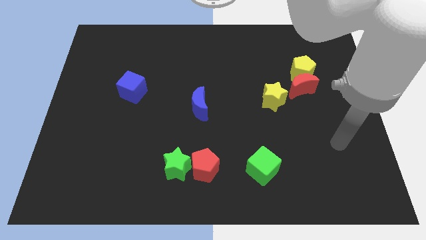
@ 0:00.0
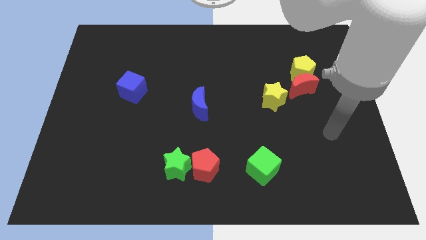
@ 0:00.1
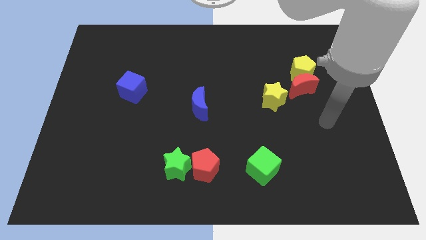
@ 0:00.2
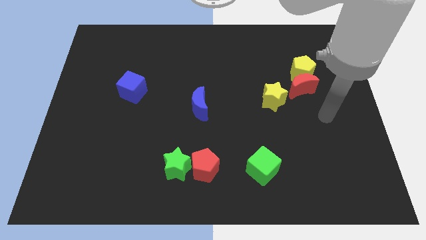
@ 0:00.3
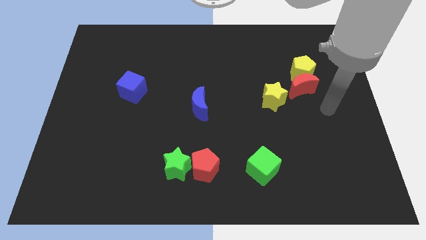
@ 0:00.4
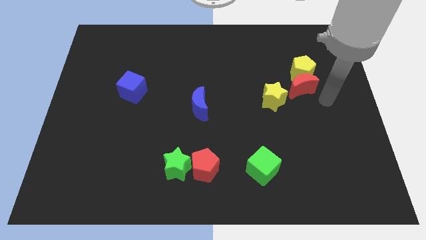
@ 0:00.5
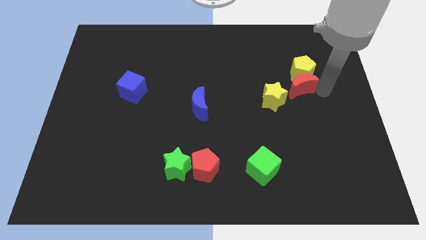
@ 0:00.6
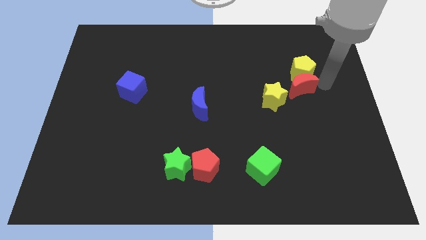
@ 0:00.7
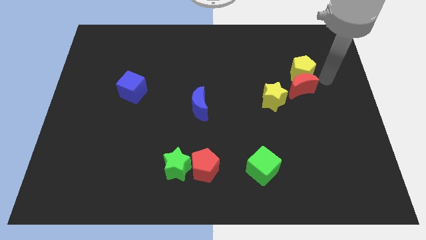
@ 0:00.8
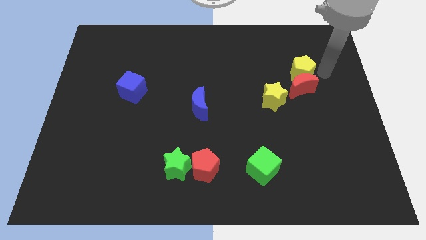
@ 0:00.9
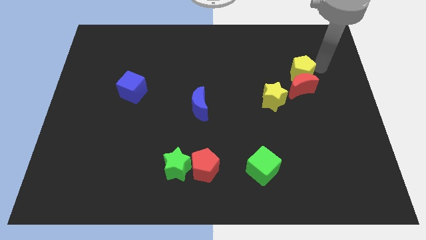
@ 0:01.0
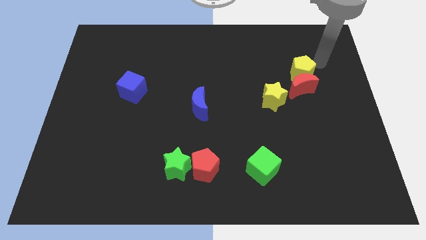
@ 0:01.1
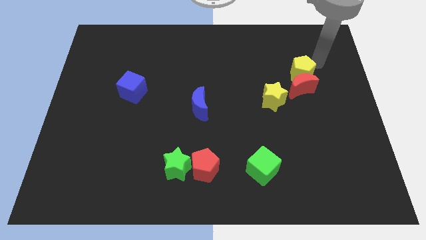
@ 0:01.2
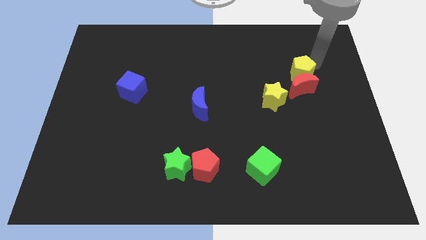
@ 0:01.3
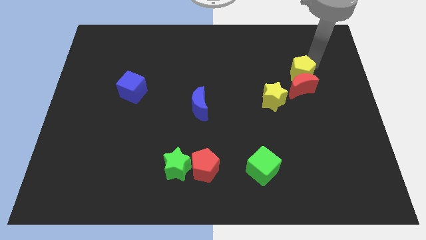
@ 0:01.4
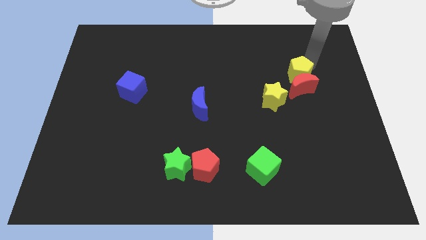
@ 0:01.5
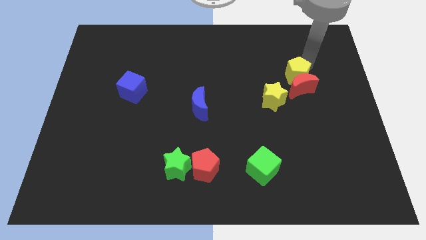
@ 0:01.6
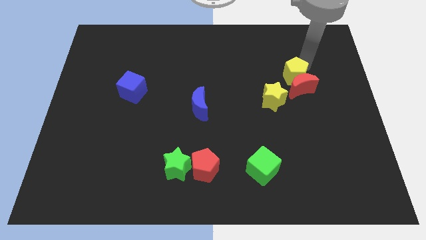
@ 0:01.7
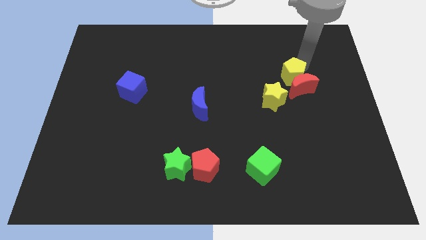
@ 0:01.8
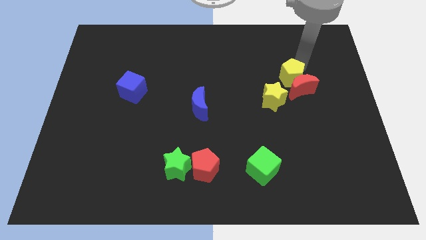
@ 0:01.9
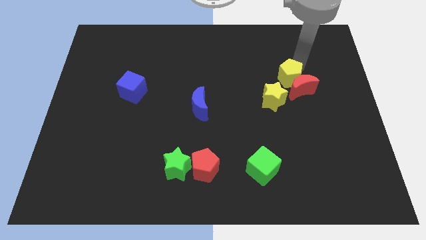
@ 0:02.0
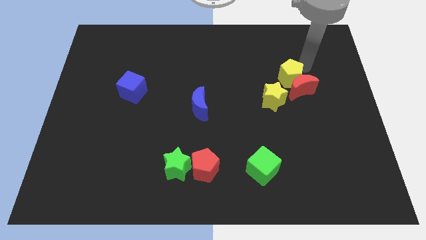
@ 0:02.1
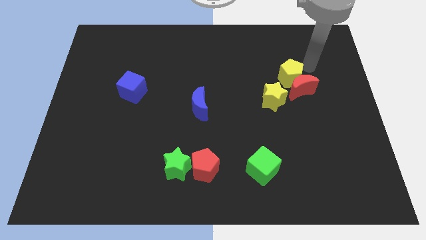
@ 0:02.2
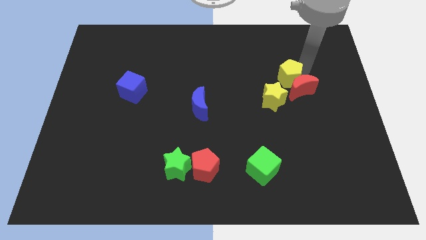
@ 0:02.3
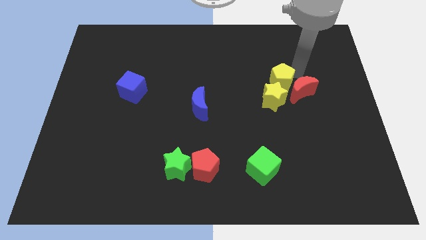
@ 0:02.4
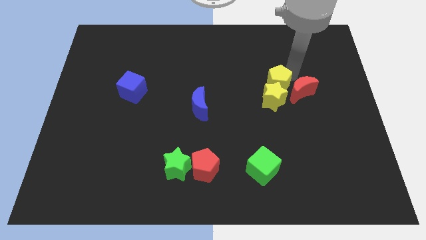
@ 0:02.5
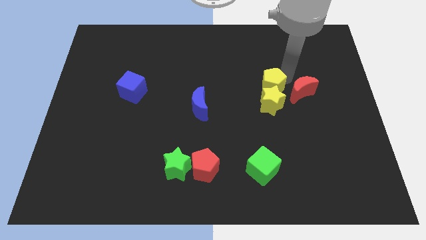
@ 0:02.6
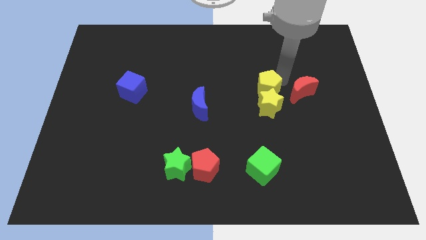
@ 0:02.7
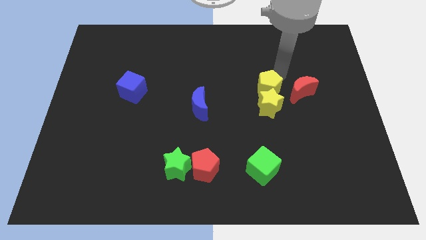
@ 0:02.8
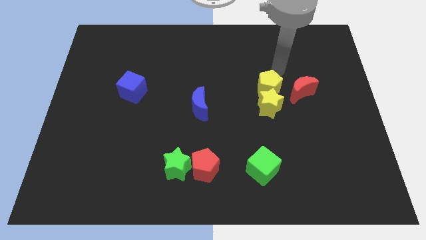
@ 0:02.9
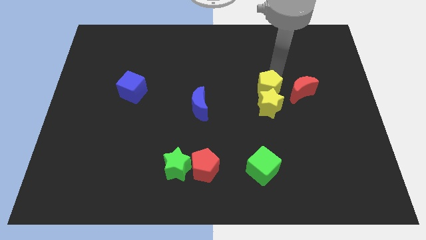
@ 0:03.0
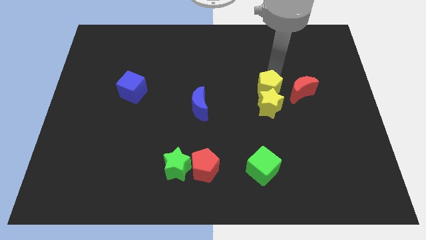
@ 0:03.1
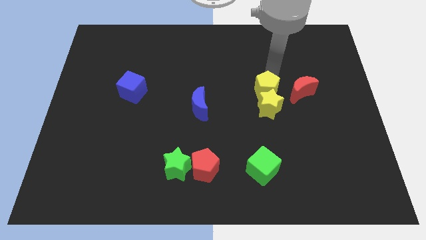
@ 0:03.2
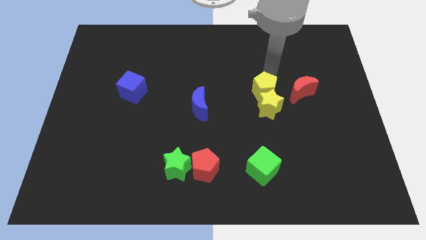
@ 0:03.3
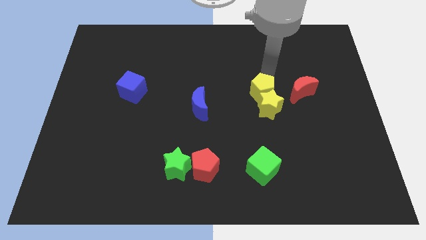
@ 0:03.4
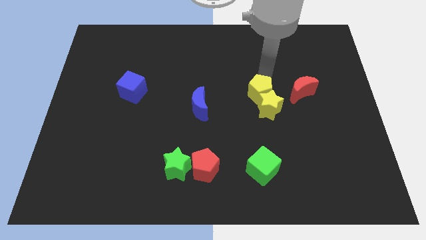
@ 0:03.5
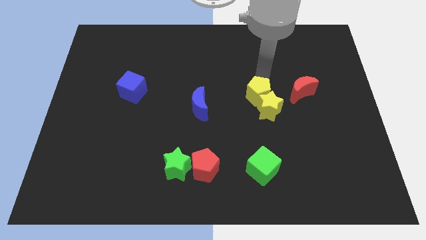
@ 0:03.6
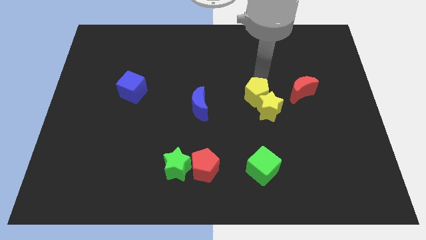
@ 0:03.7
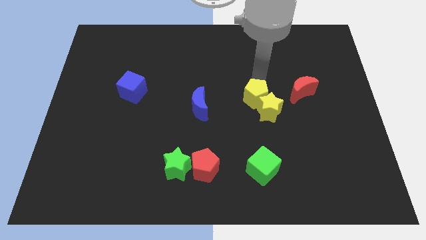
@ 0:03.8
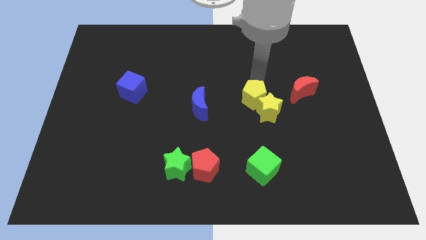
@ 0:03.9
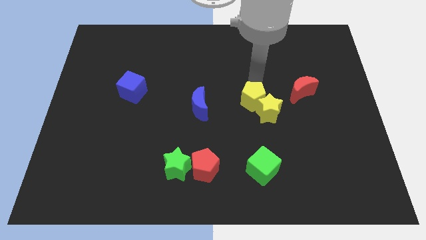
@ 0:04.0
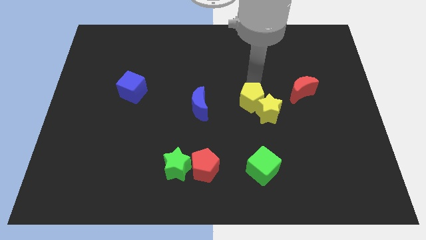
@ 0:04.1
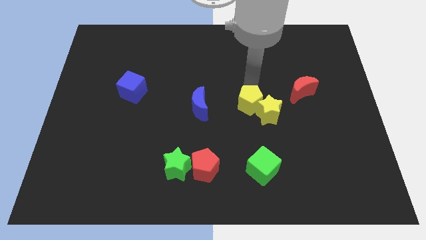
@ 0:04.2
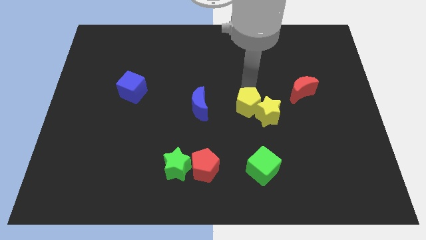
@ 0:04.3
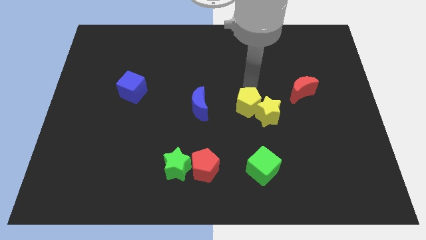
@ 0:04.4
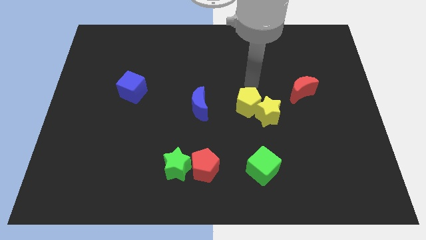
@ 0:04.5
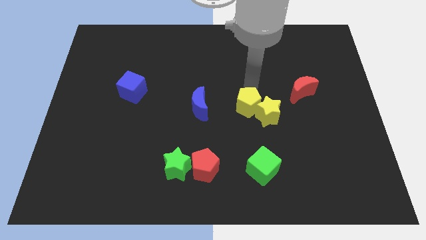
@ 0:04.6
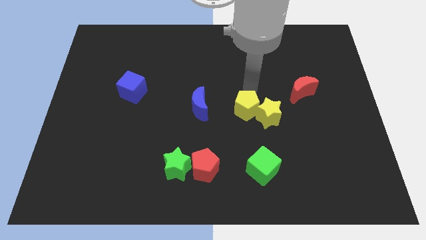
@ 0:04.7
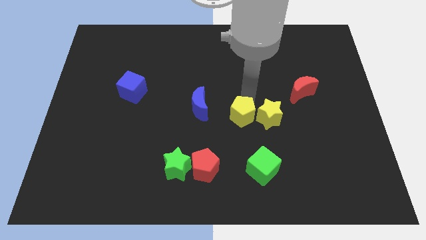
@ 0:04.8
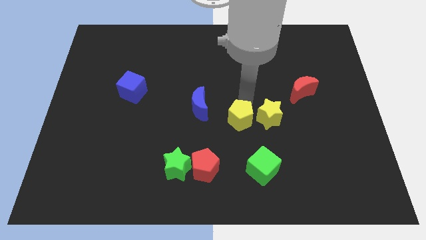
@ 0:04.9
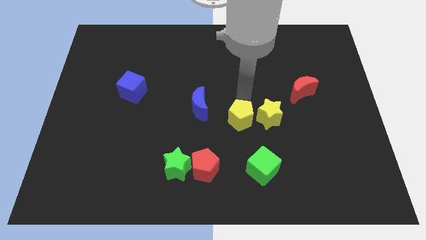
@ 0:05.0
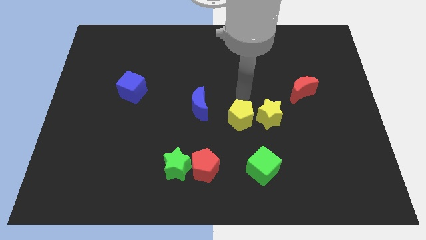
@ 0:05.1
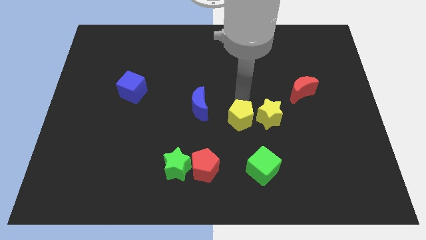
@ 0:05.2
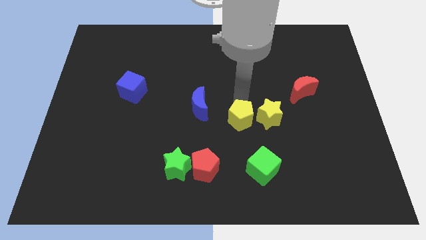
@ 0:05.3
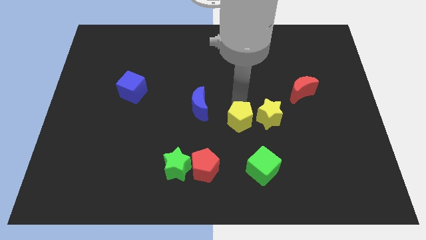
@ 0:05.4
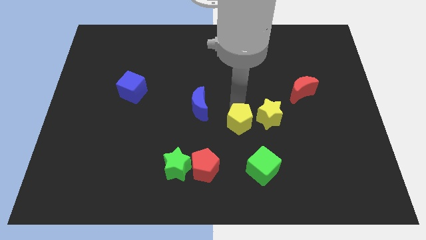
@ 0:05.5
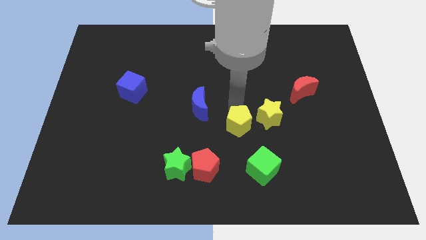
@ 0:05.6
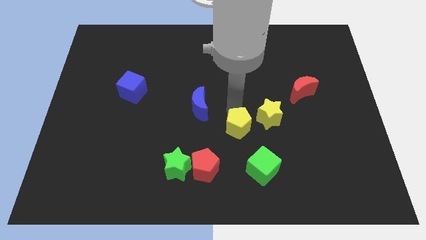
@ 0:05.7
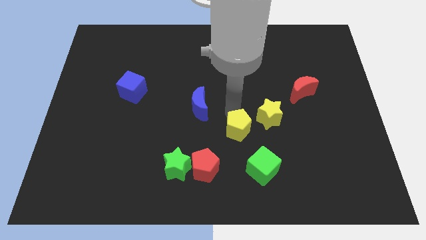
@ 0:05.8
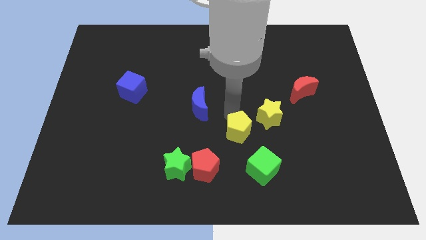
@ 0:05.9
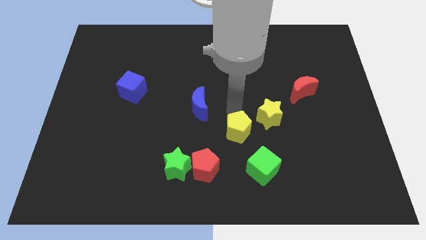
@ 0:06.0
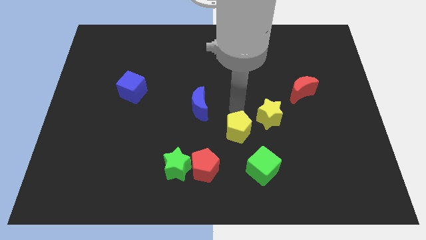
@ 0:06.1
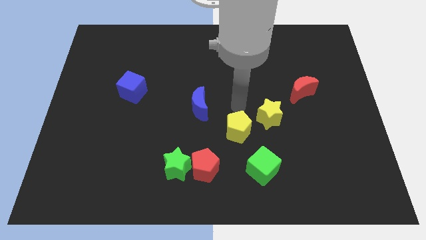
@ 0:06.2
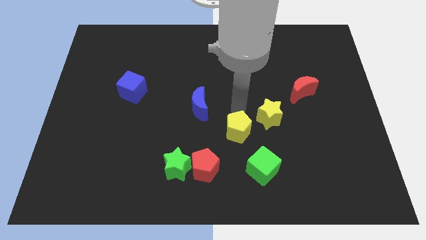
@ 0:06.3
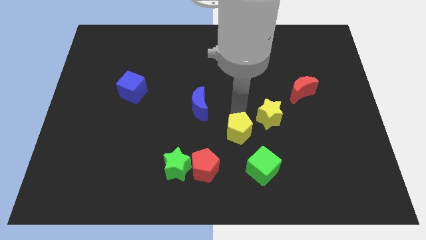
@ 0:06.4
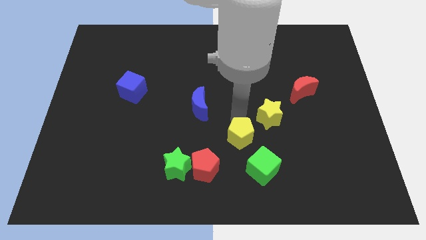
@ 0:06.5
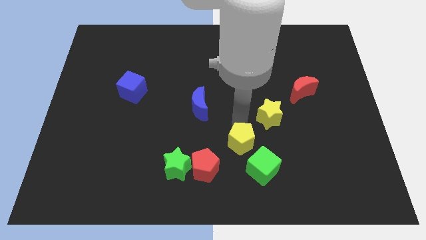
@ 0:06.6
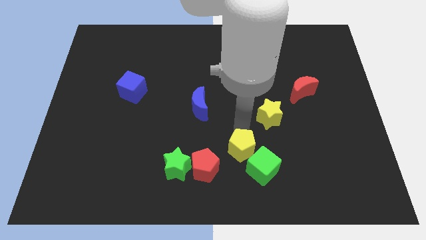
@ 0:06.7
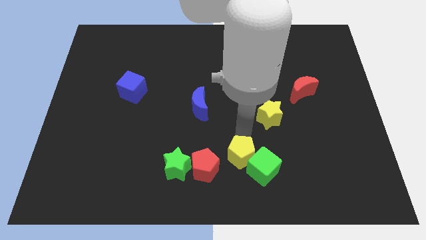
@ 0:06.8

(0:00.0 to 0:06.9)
put the yellow pentagon just right of the green star

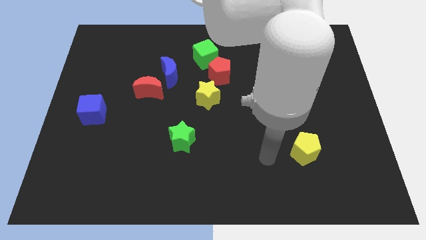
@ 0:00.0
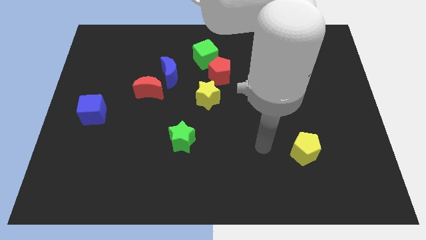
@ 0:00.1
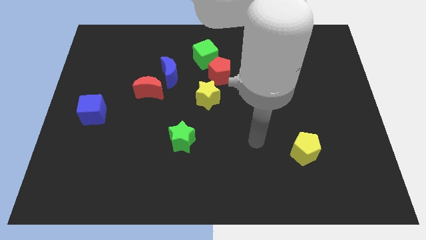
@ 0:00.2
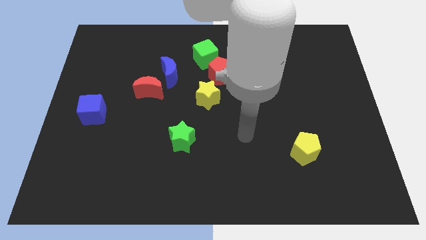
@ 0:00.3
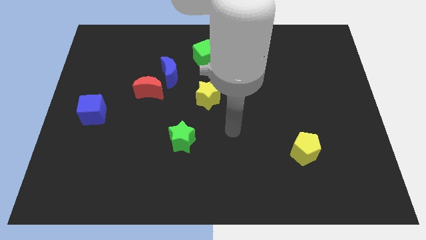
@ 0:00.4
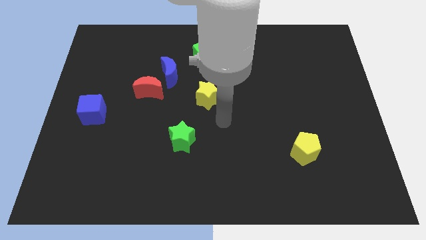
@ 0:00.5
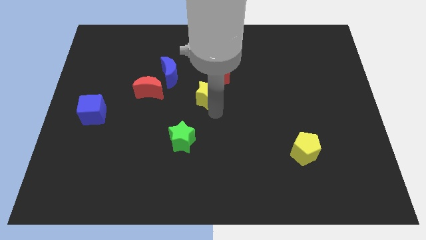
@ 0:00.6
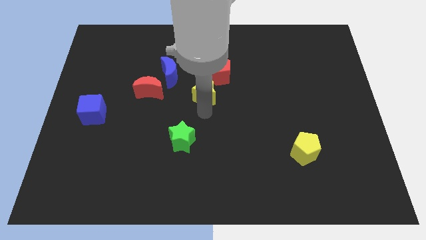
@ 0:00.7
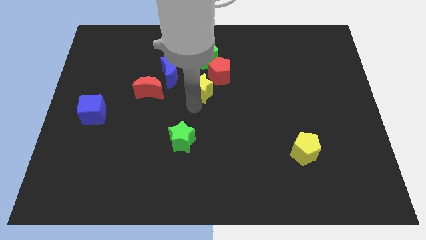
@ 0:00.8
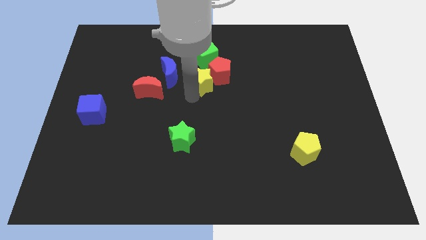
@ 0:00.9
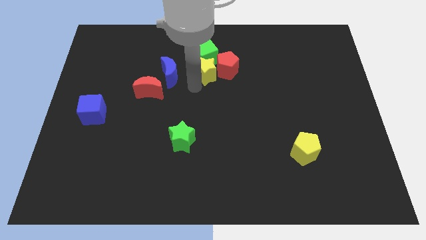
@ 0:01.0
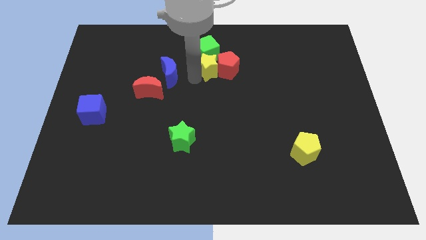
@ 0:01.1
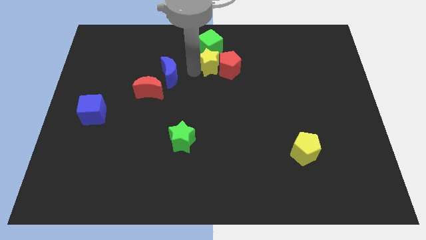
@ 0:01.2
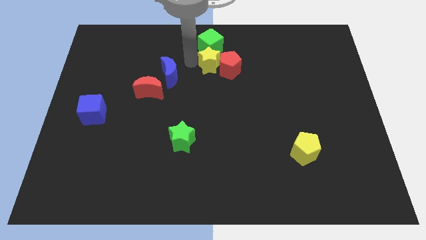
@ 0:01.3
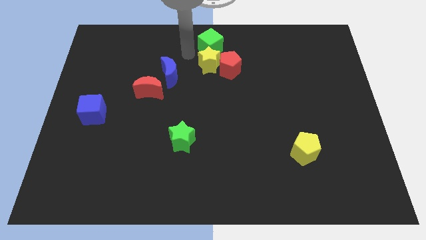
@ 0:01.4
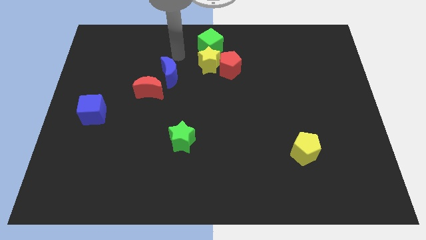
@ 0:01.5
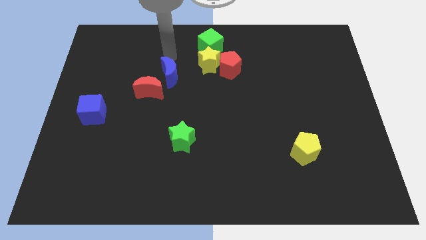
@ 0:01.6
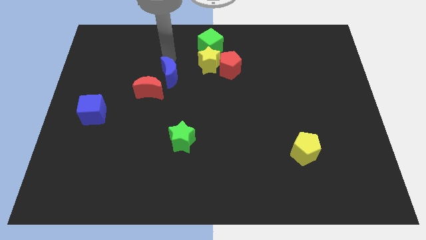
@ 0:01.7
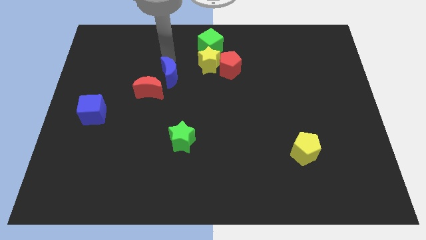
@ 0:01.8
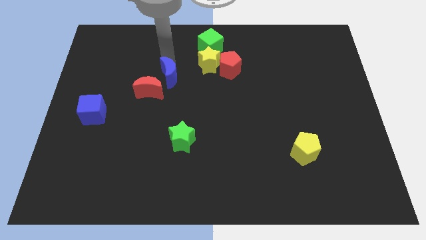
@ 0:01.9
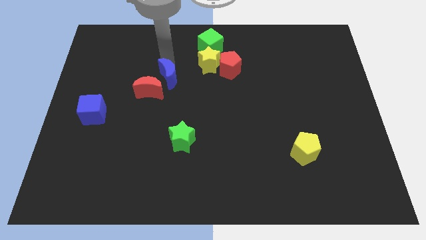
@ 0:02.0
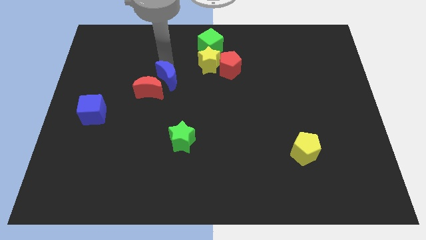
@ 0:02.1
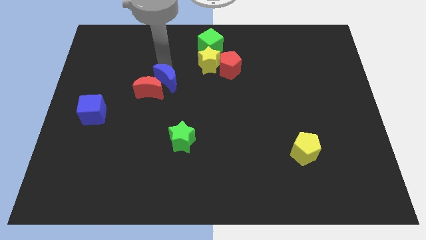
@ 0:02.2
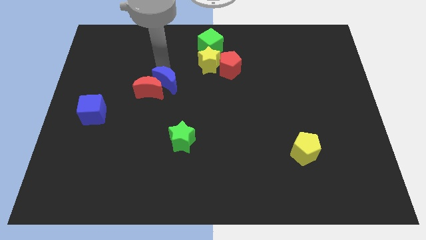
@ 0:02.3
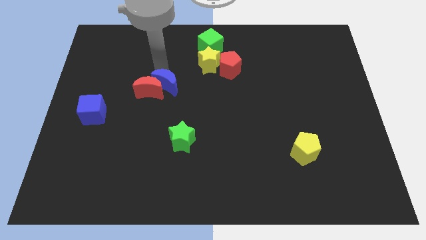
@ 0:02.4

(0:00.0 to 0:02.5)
move the blue moon to the bottom right side of the red moon
